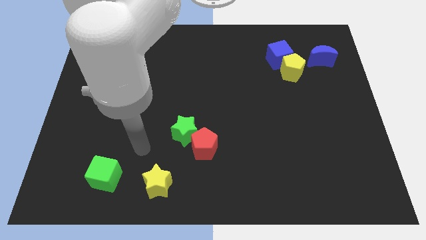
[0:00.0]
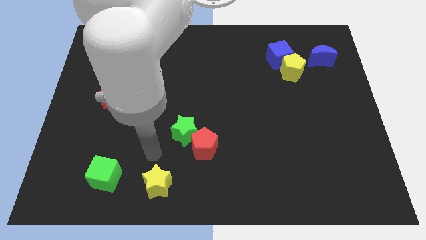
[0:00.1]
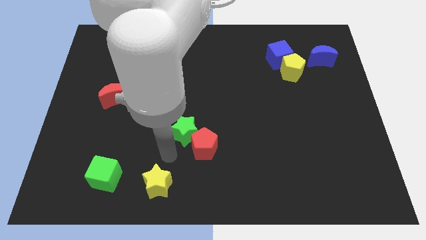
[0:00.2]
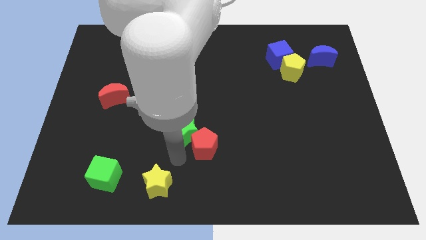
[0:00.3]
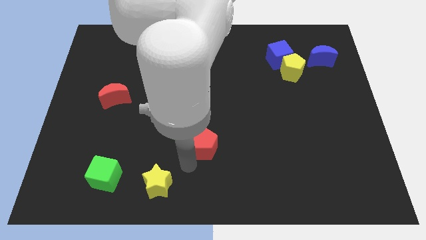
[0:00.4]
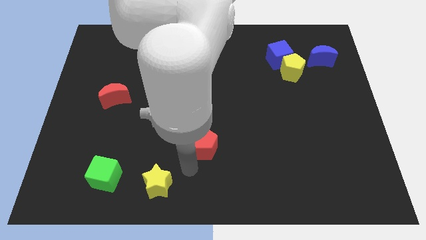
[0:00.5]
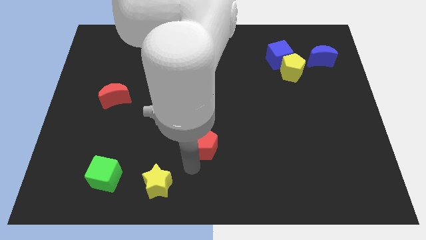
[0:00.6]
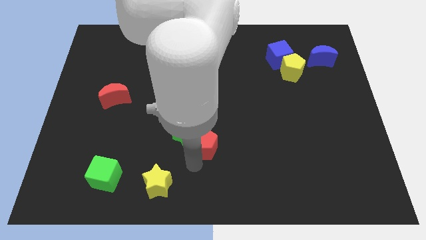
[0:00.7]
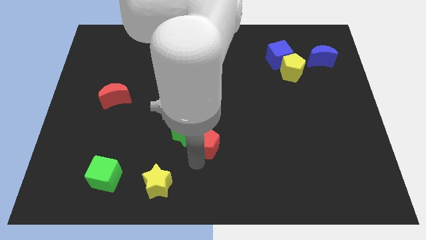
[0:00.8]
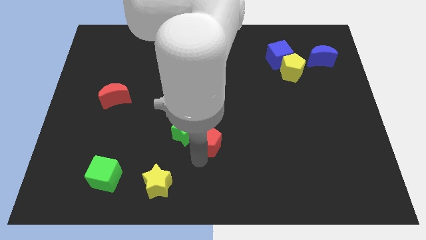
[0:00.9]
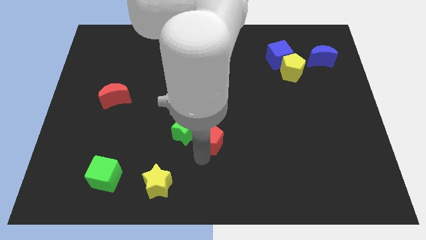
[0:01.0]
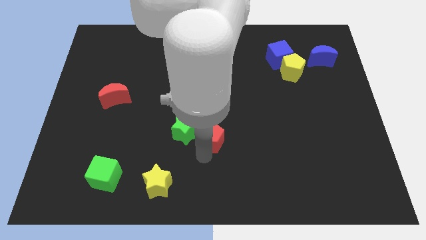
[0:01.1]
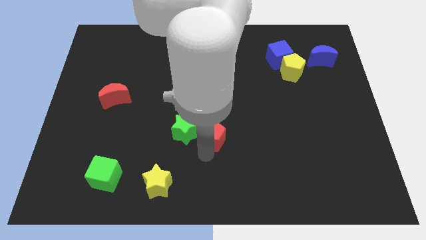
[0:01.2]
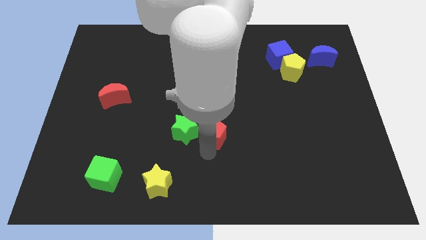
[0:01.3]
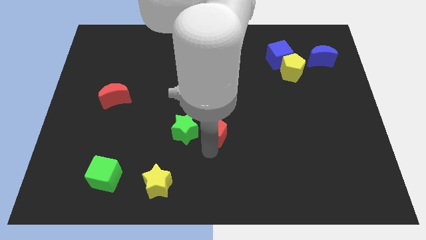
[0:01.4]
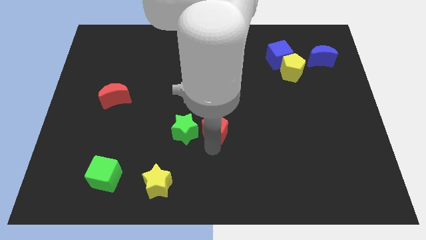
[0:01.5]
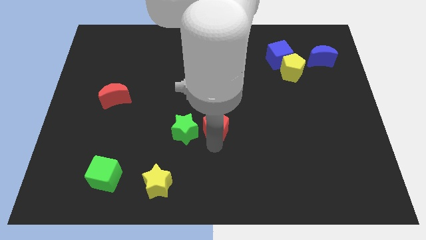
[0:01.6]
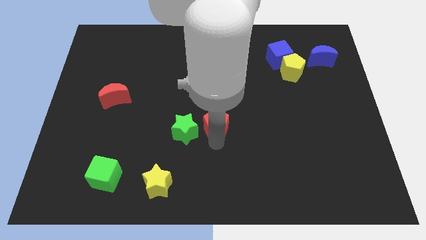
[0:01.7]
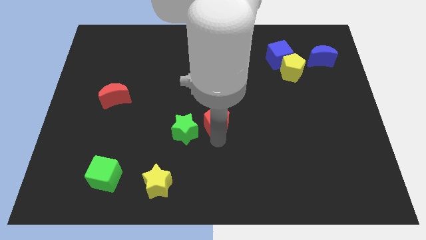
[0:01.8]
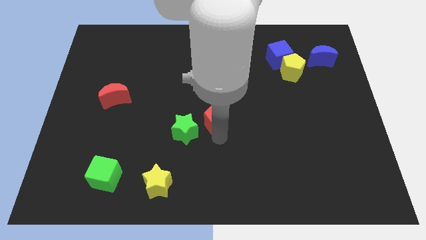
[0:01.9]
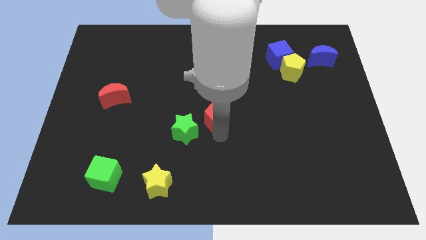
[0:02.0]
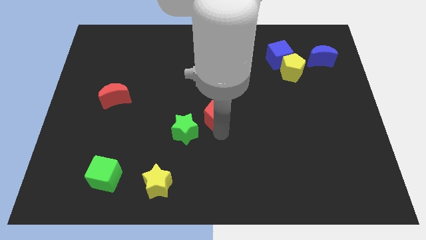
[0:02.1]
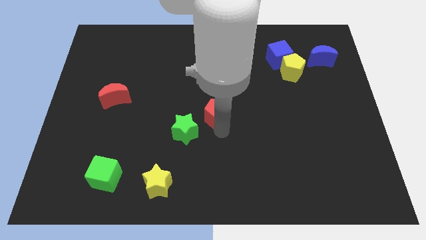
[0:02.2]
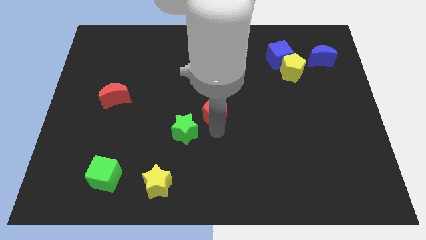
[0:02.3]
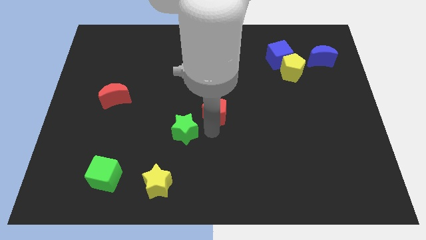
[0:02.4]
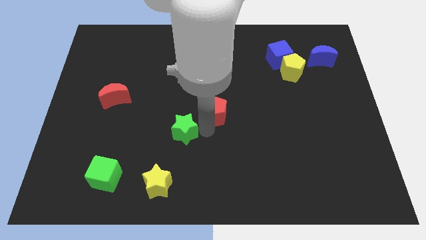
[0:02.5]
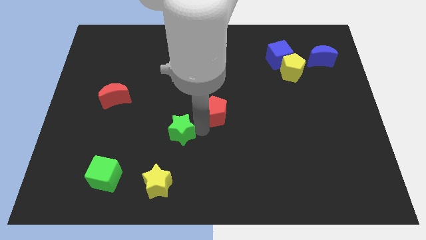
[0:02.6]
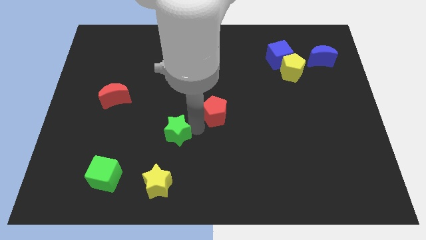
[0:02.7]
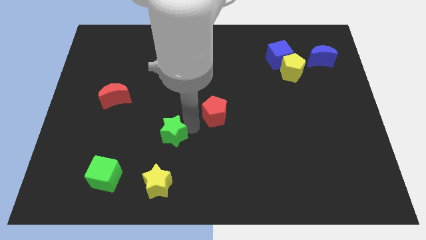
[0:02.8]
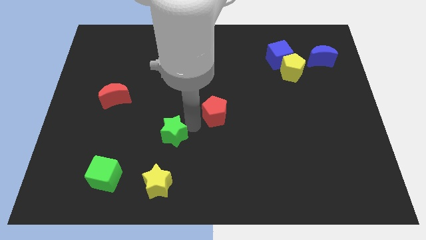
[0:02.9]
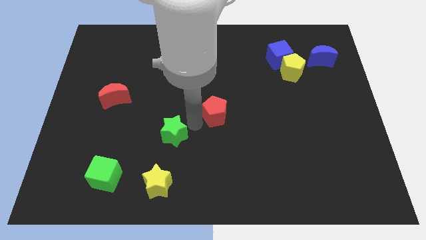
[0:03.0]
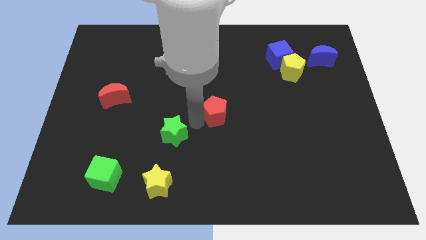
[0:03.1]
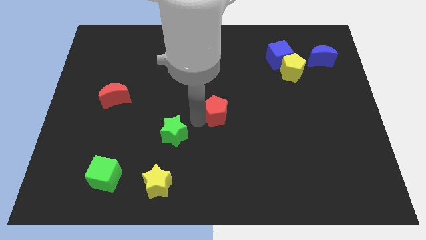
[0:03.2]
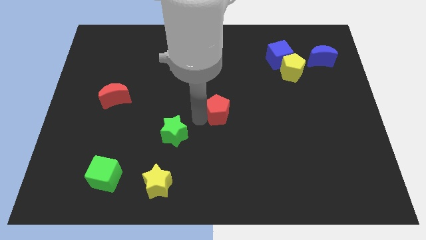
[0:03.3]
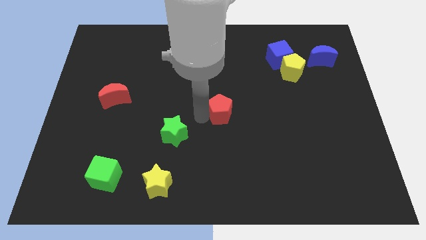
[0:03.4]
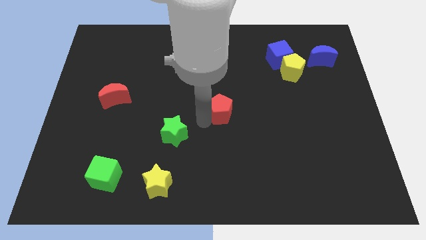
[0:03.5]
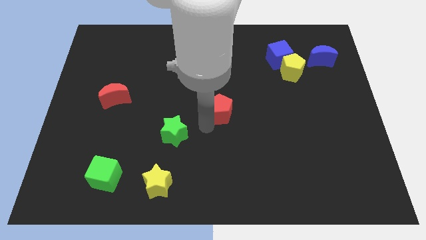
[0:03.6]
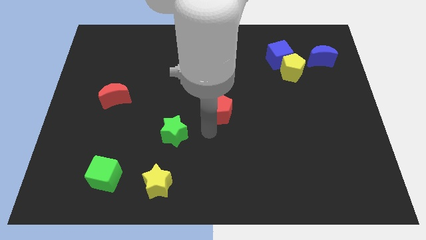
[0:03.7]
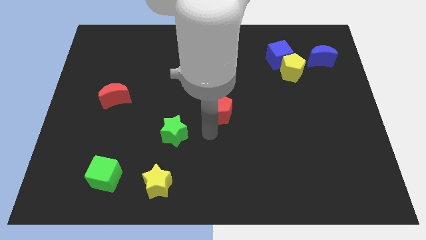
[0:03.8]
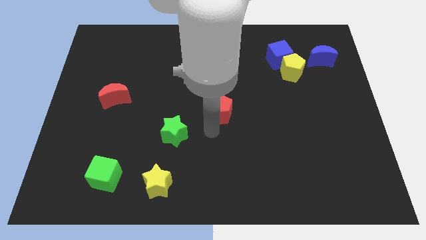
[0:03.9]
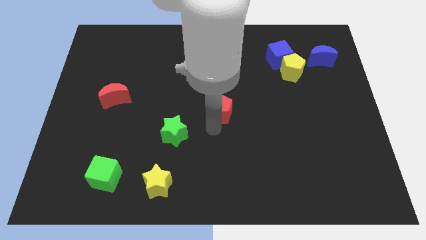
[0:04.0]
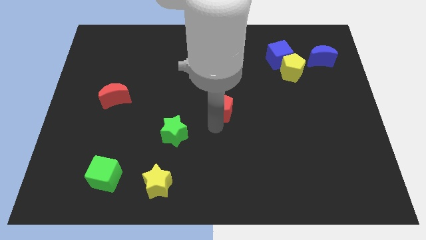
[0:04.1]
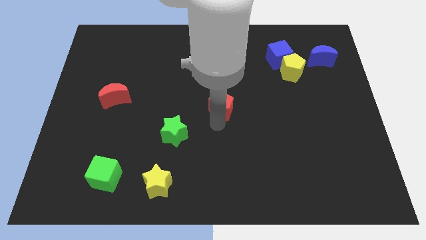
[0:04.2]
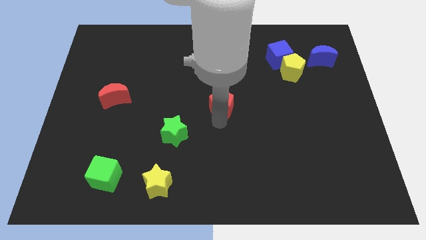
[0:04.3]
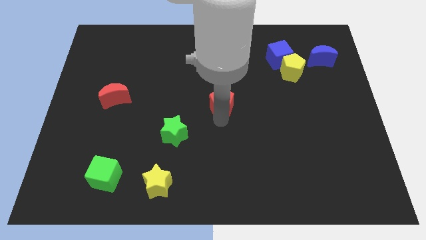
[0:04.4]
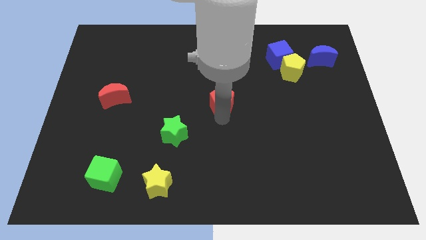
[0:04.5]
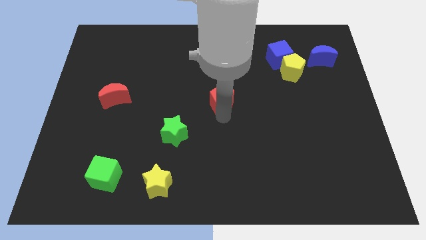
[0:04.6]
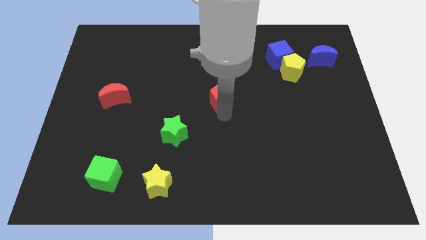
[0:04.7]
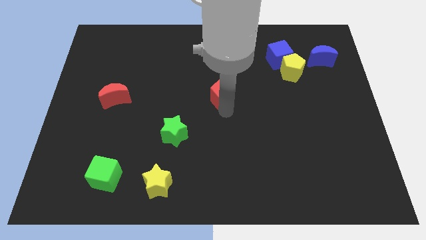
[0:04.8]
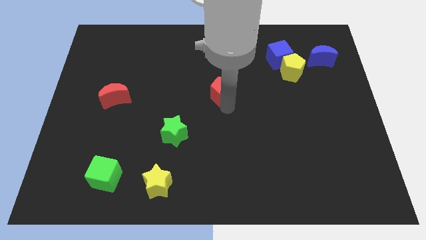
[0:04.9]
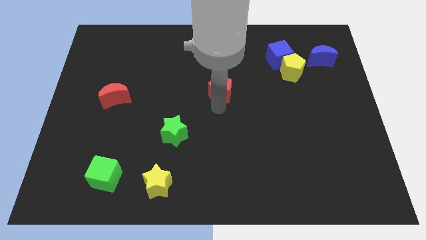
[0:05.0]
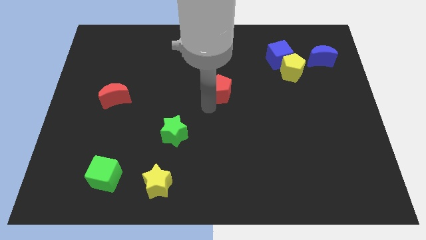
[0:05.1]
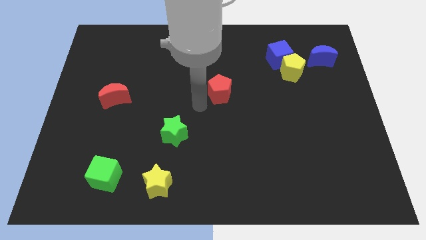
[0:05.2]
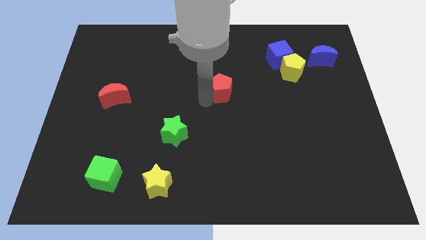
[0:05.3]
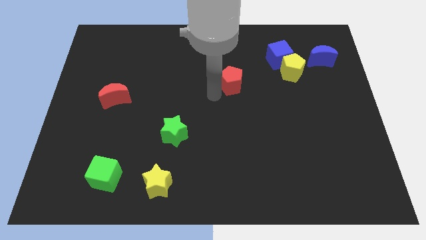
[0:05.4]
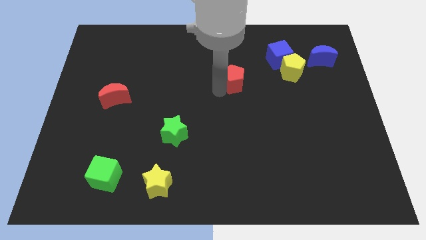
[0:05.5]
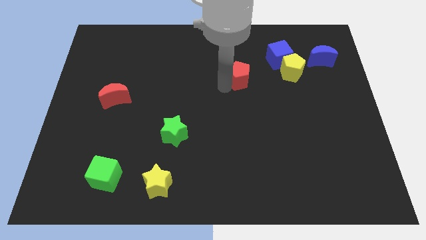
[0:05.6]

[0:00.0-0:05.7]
move the red pentagon left of the yellow pentagon
